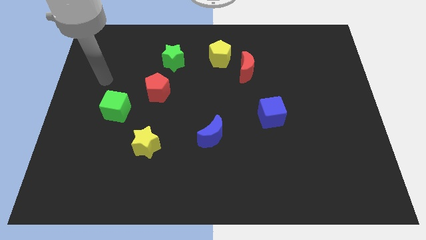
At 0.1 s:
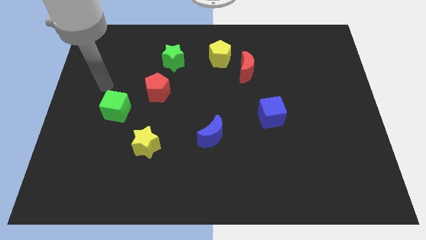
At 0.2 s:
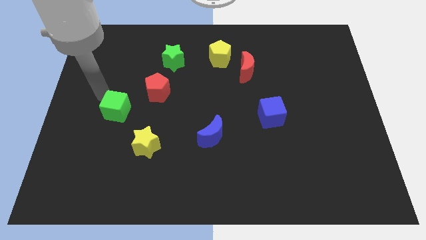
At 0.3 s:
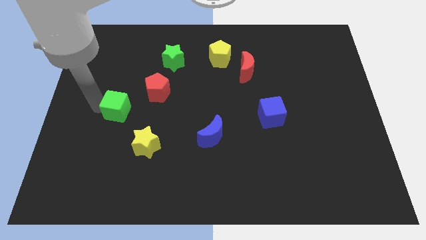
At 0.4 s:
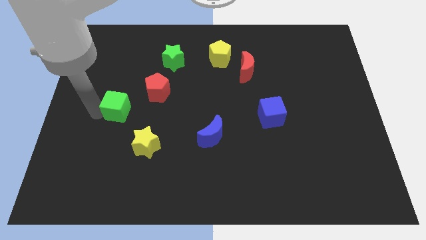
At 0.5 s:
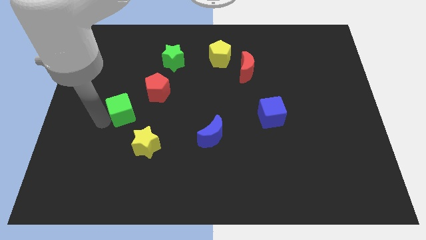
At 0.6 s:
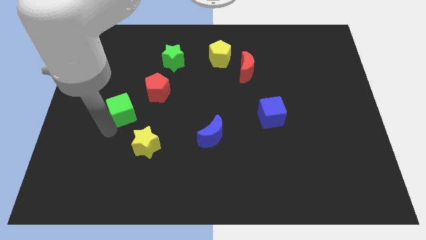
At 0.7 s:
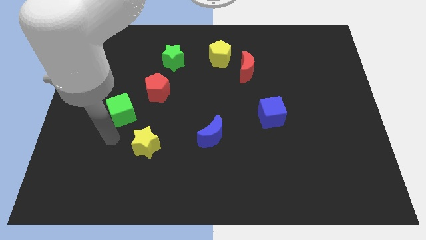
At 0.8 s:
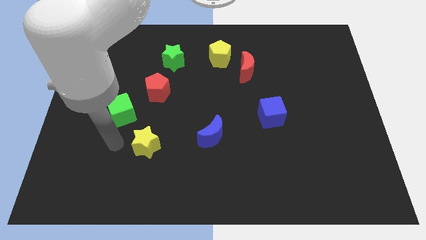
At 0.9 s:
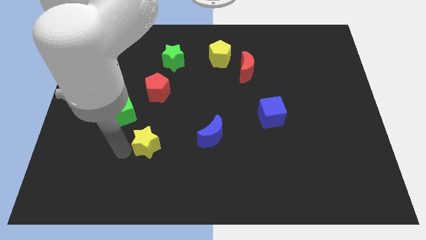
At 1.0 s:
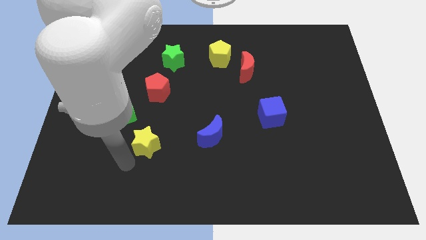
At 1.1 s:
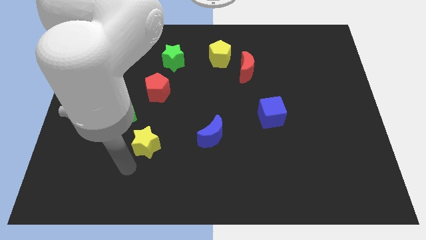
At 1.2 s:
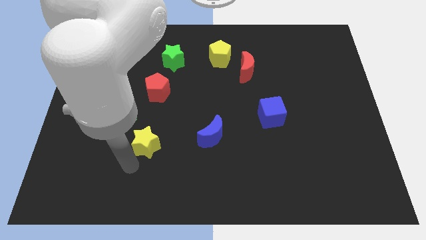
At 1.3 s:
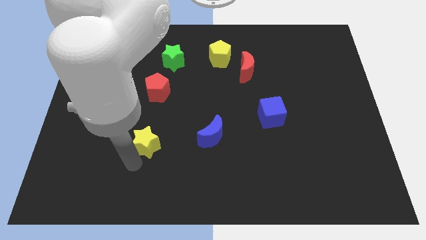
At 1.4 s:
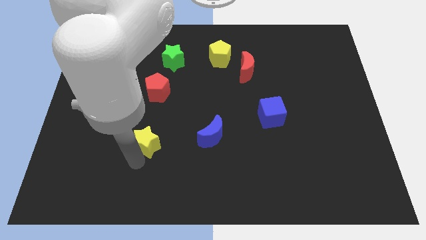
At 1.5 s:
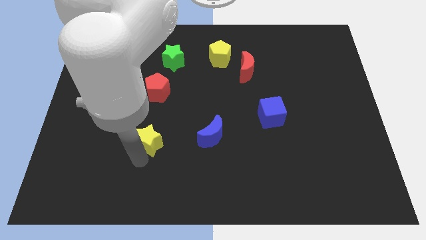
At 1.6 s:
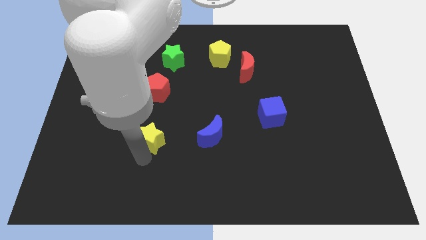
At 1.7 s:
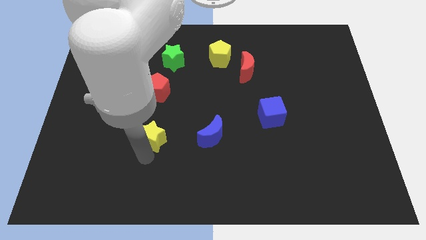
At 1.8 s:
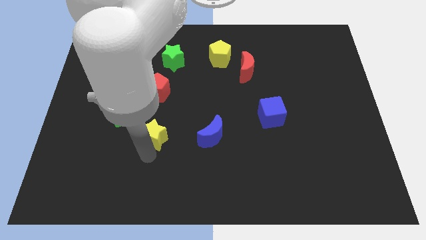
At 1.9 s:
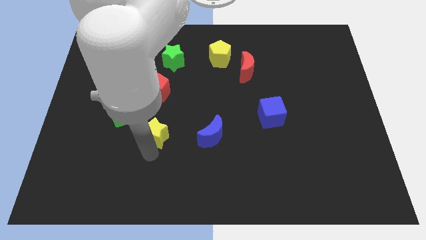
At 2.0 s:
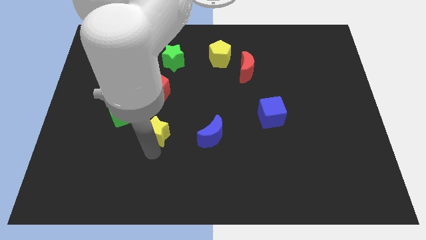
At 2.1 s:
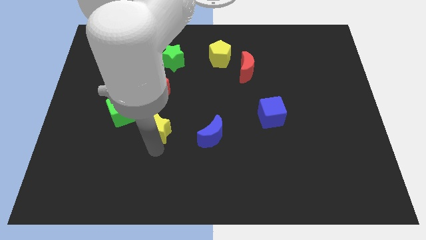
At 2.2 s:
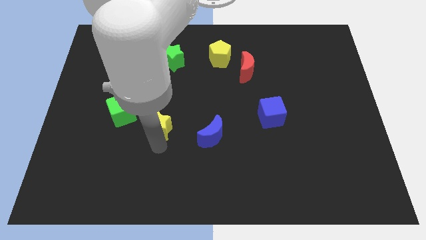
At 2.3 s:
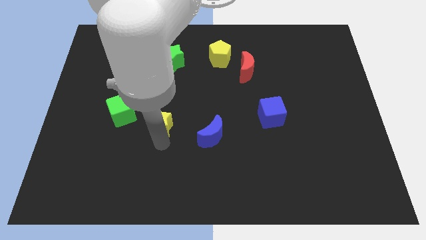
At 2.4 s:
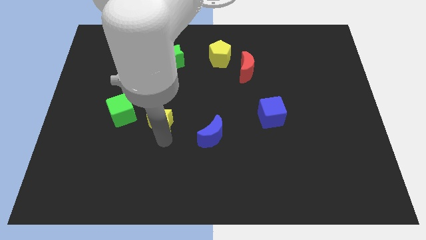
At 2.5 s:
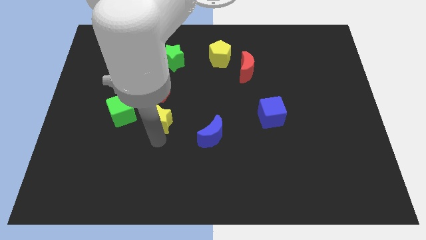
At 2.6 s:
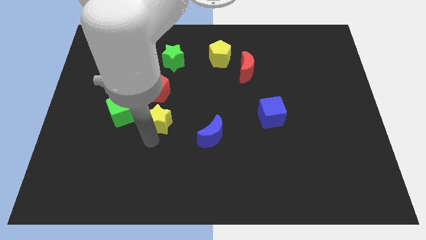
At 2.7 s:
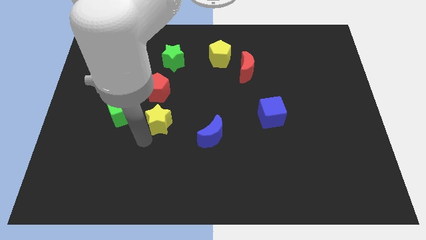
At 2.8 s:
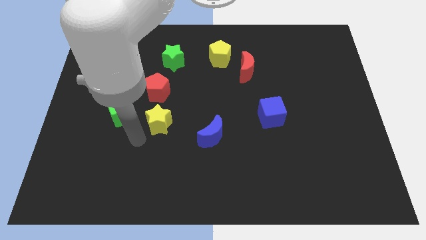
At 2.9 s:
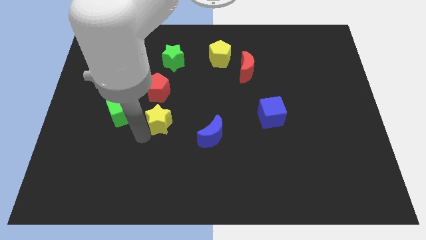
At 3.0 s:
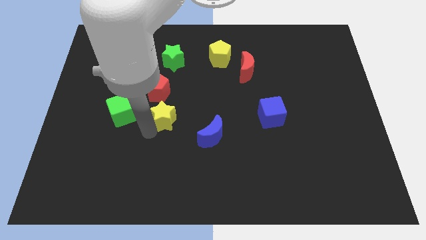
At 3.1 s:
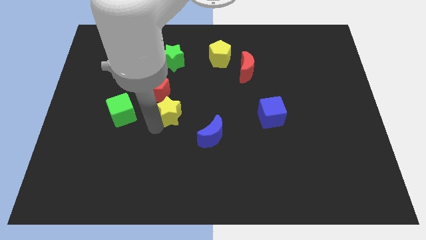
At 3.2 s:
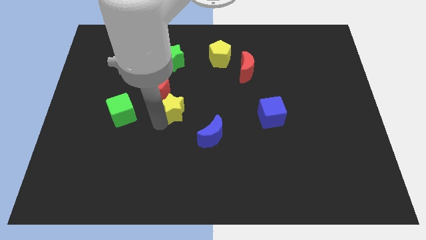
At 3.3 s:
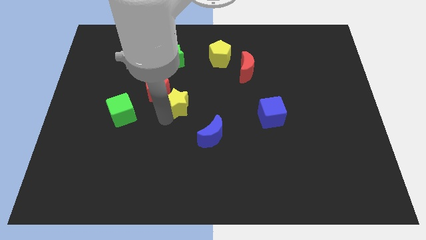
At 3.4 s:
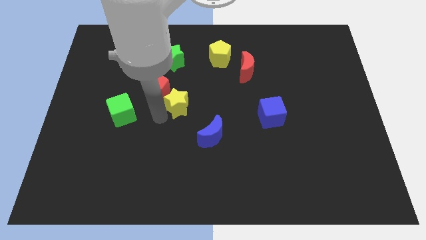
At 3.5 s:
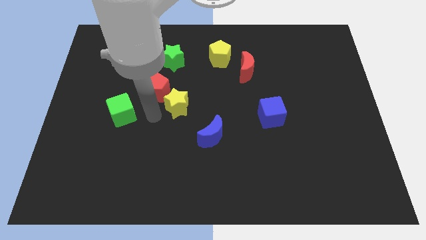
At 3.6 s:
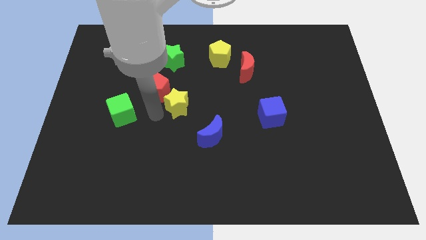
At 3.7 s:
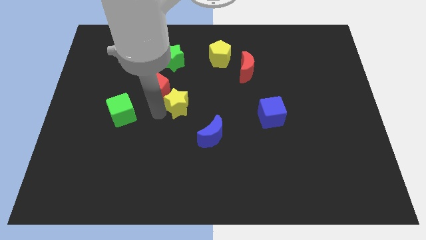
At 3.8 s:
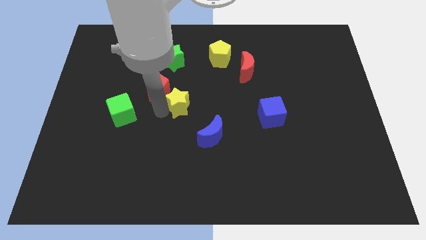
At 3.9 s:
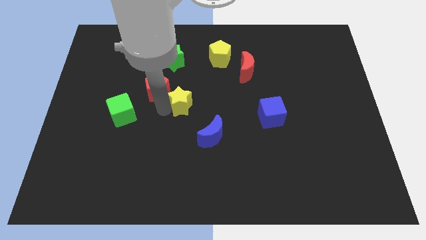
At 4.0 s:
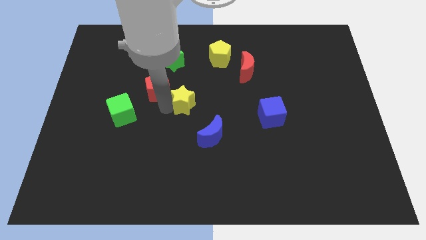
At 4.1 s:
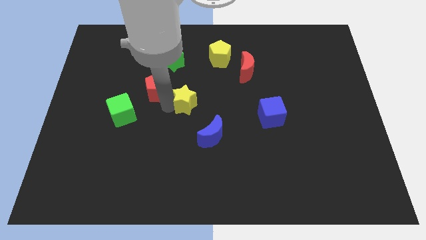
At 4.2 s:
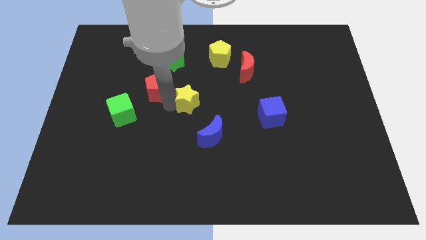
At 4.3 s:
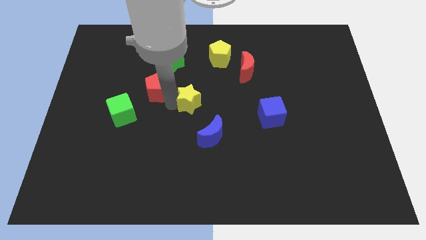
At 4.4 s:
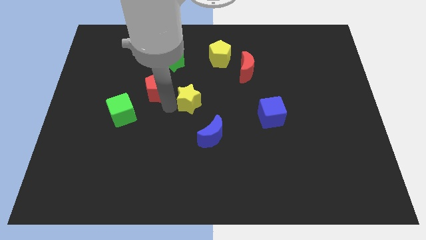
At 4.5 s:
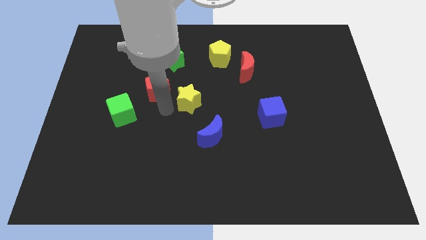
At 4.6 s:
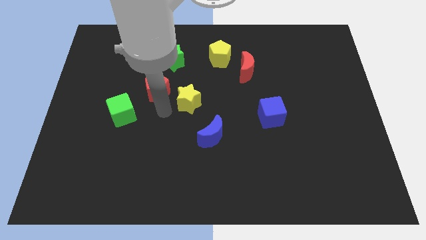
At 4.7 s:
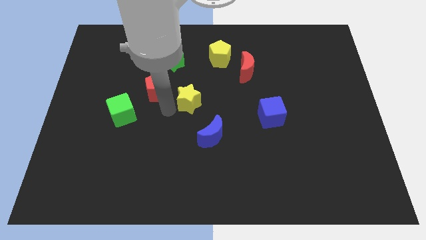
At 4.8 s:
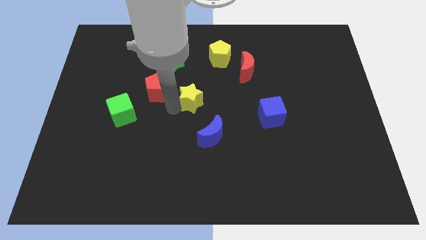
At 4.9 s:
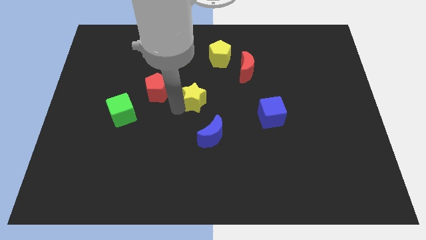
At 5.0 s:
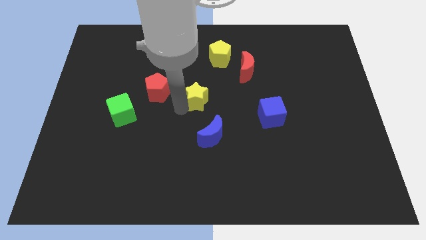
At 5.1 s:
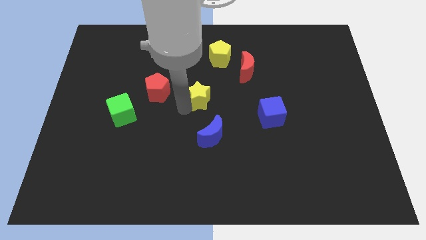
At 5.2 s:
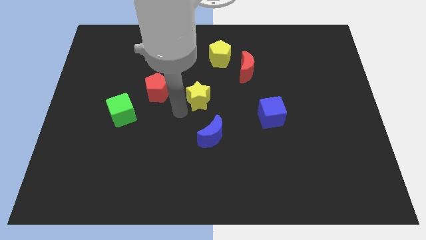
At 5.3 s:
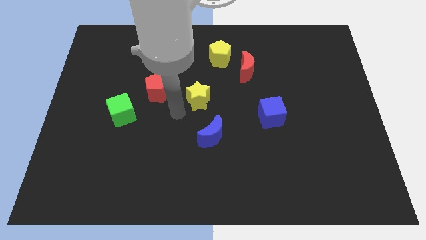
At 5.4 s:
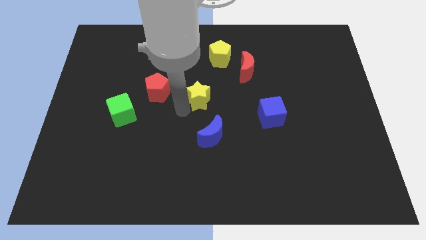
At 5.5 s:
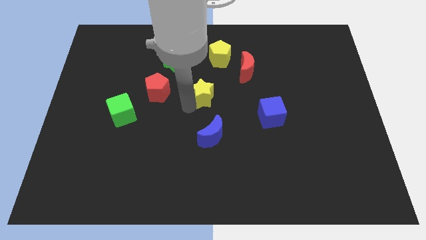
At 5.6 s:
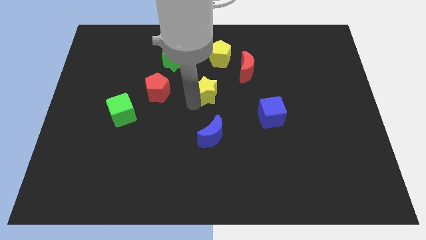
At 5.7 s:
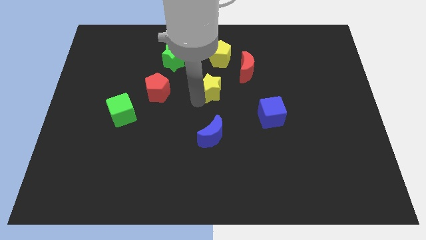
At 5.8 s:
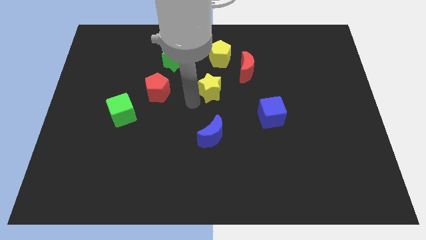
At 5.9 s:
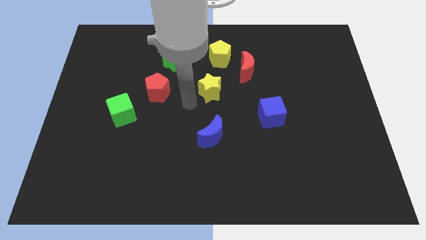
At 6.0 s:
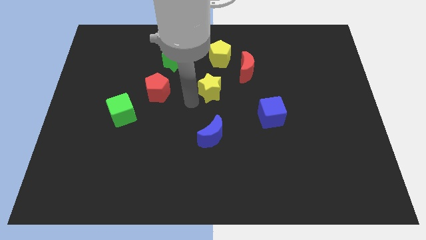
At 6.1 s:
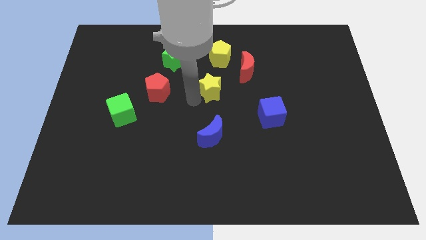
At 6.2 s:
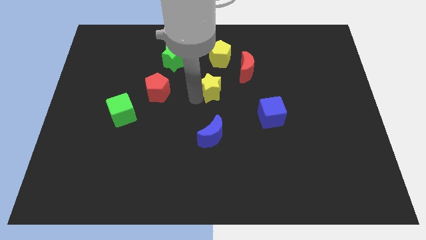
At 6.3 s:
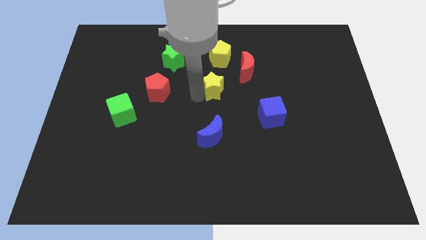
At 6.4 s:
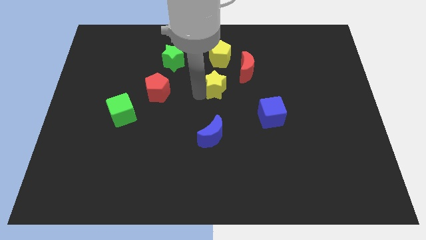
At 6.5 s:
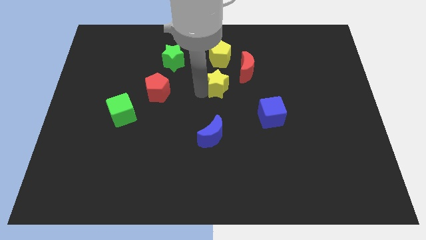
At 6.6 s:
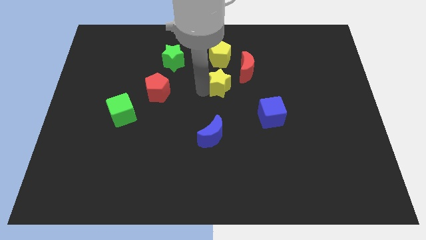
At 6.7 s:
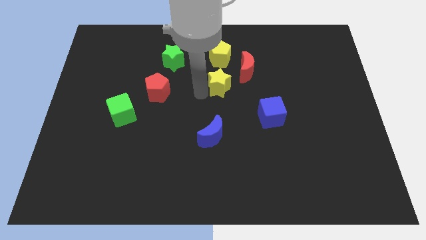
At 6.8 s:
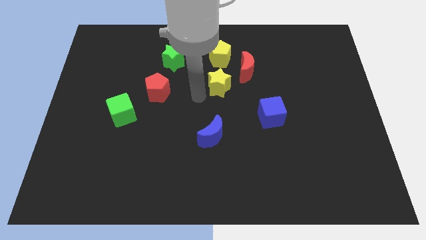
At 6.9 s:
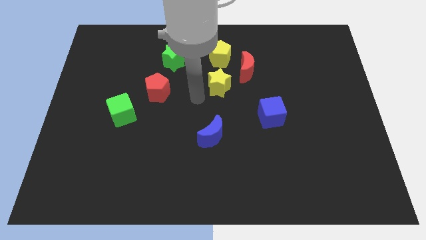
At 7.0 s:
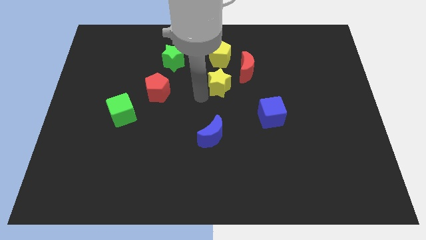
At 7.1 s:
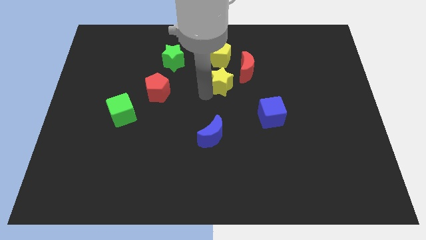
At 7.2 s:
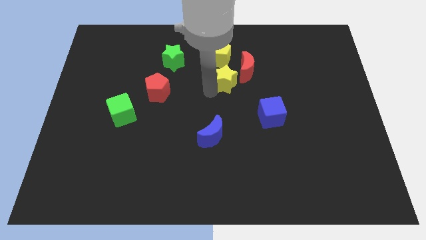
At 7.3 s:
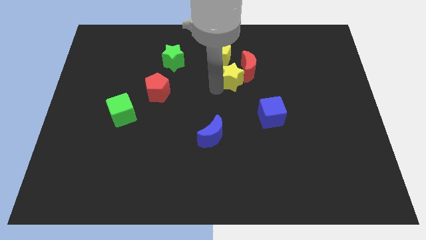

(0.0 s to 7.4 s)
put the yellow star next to the red moon
